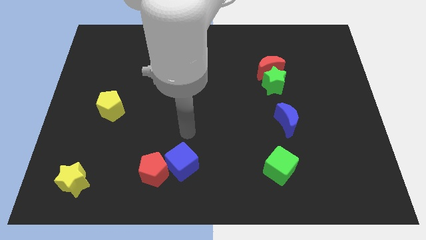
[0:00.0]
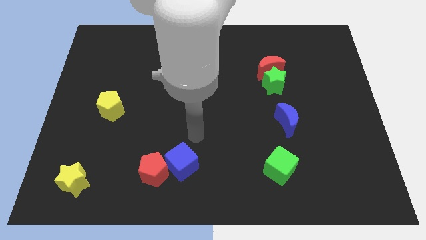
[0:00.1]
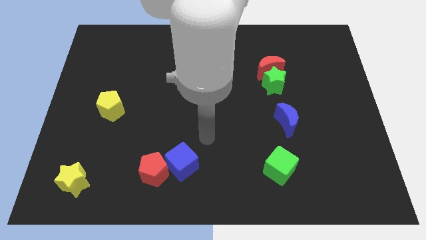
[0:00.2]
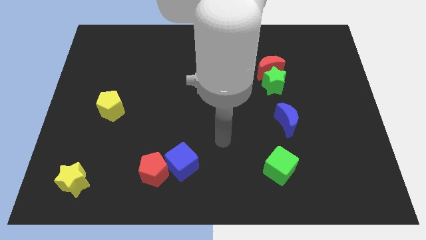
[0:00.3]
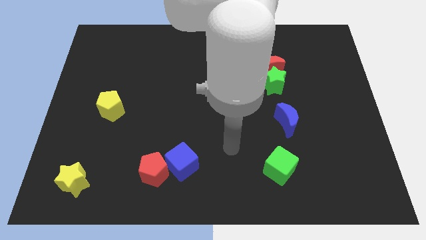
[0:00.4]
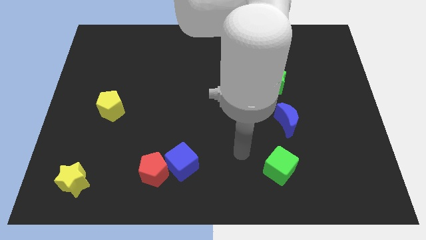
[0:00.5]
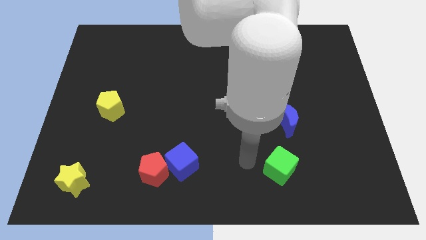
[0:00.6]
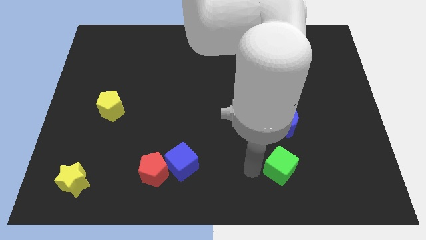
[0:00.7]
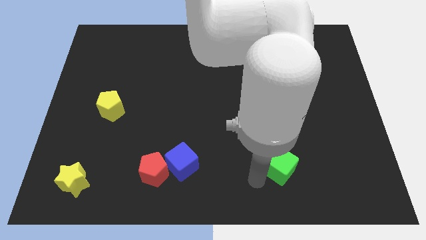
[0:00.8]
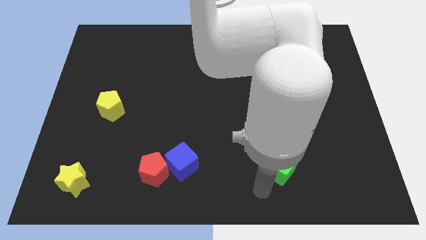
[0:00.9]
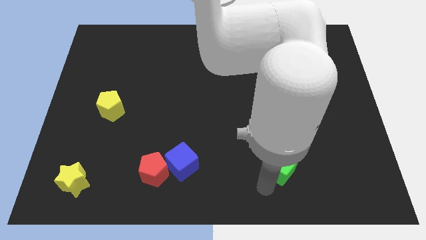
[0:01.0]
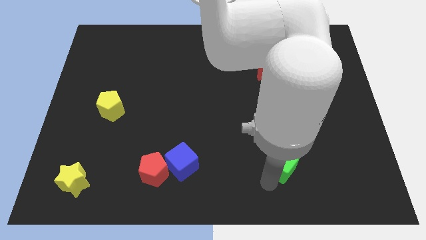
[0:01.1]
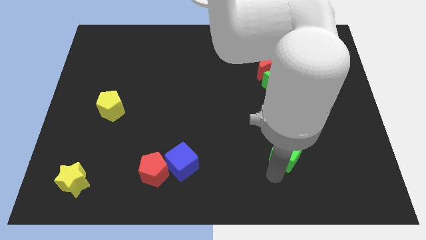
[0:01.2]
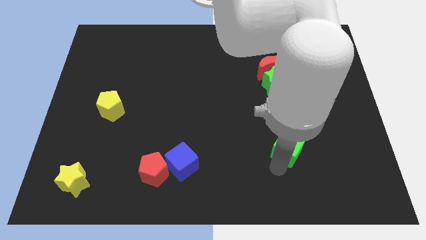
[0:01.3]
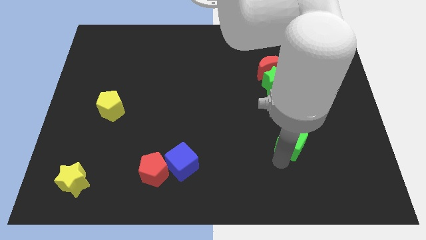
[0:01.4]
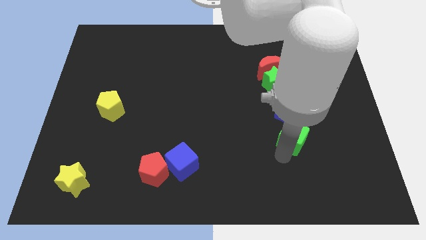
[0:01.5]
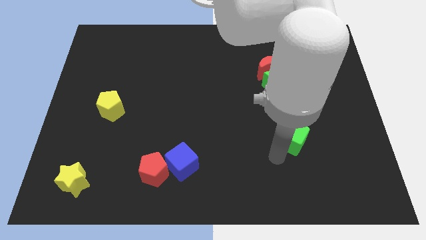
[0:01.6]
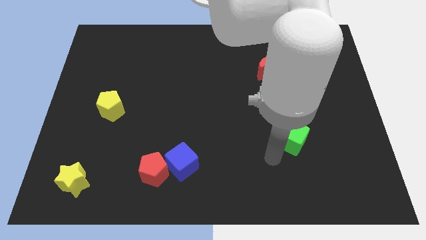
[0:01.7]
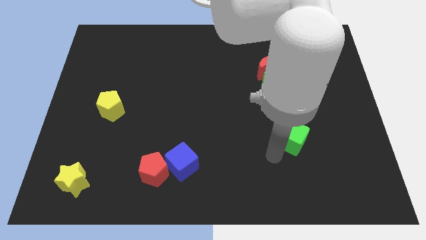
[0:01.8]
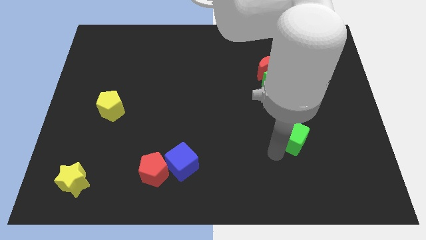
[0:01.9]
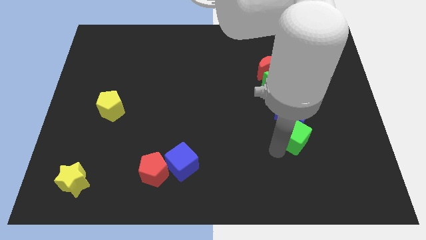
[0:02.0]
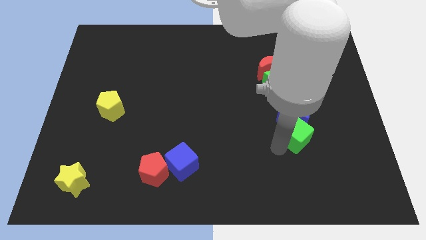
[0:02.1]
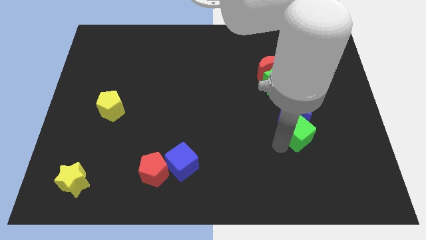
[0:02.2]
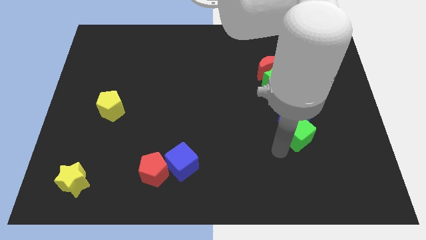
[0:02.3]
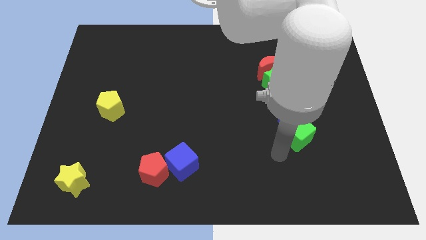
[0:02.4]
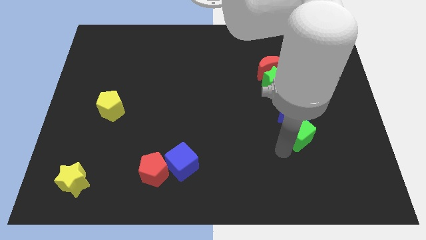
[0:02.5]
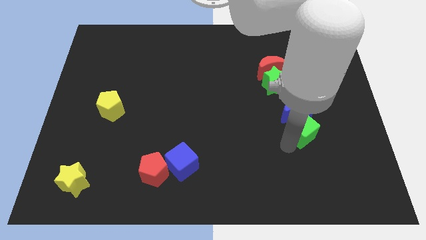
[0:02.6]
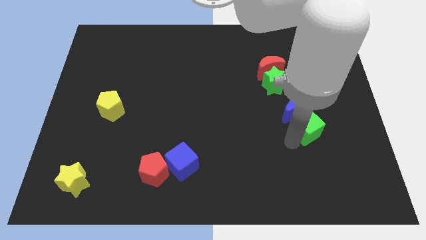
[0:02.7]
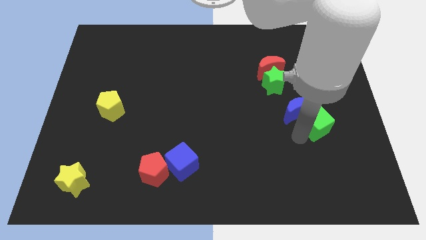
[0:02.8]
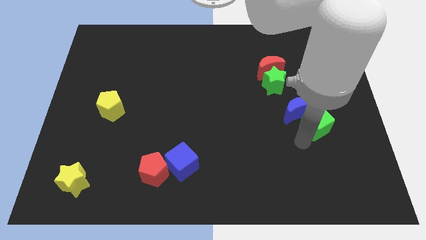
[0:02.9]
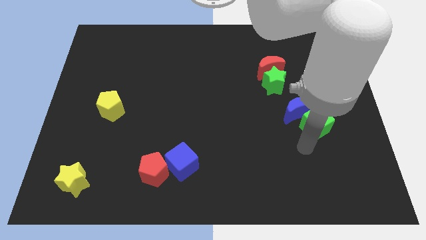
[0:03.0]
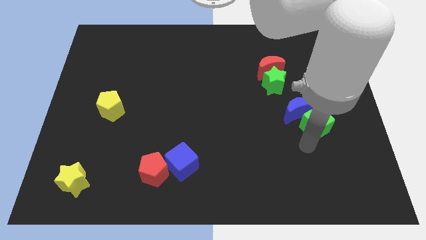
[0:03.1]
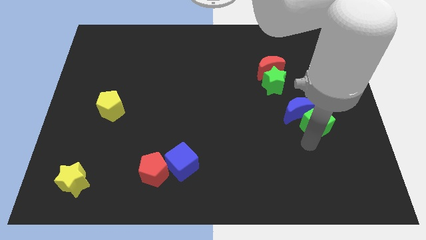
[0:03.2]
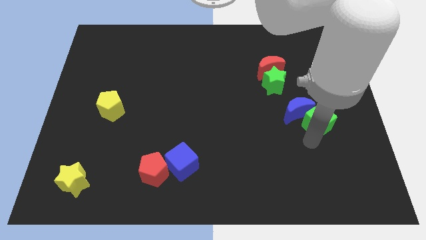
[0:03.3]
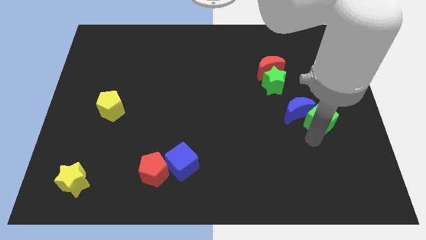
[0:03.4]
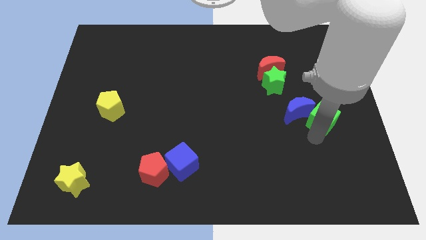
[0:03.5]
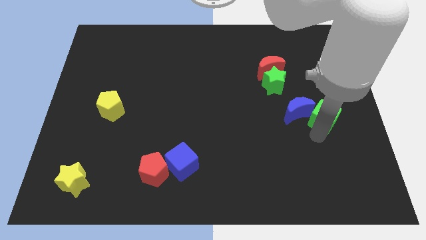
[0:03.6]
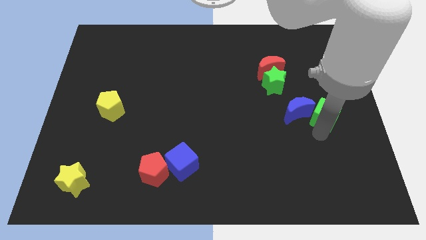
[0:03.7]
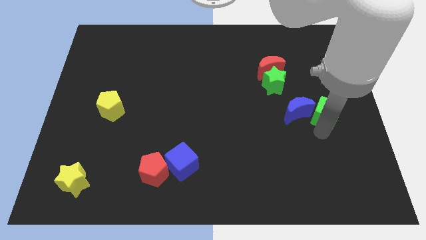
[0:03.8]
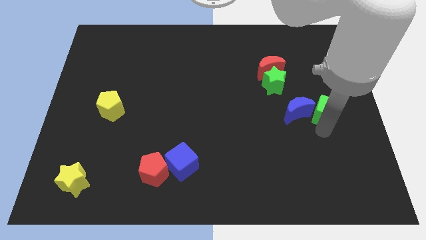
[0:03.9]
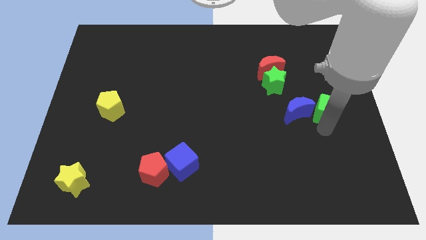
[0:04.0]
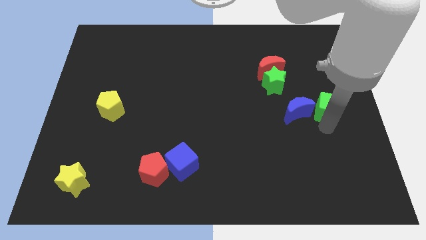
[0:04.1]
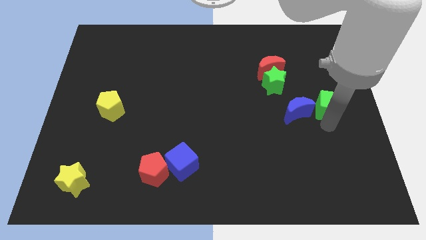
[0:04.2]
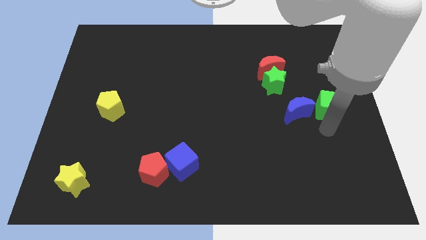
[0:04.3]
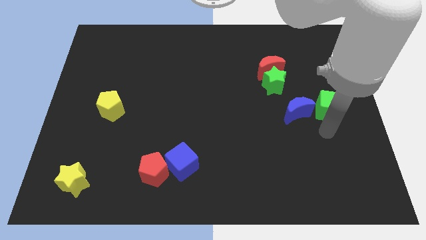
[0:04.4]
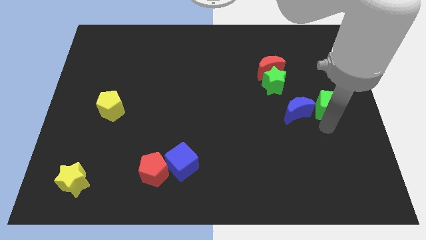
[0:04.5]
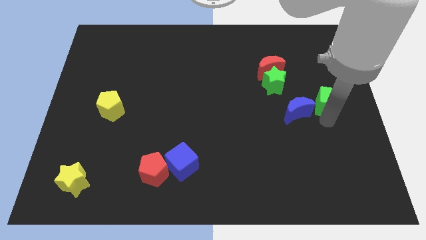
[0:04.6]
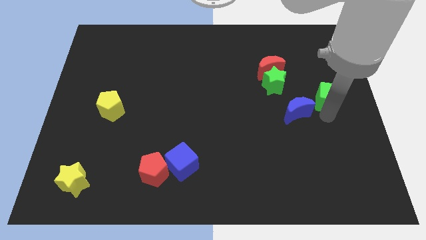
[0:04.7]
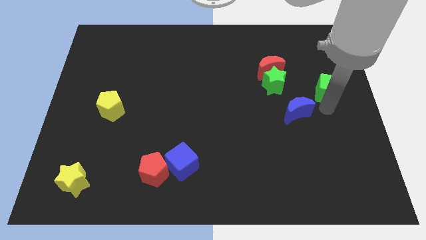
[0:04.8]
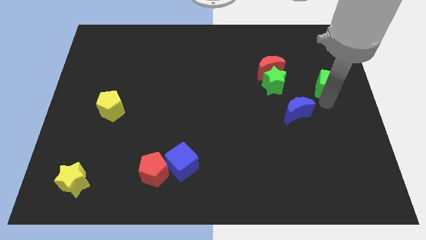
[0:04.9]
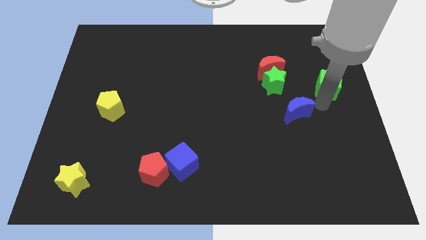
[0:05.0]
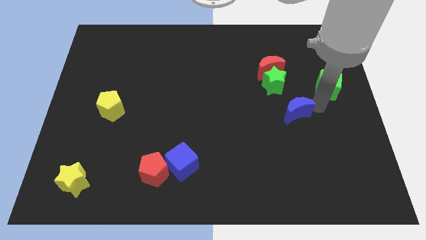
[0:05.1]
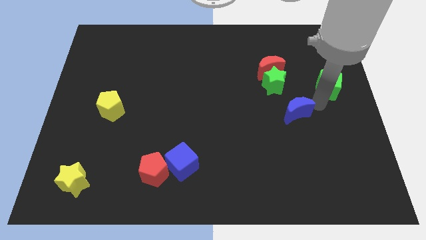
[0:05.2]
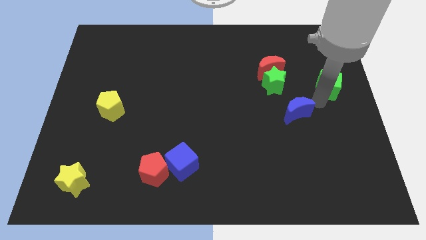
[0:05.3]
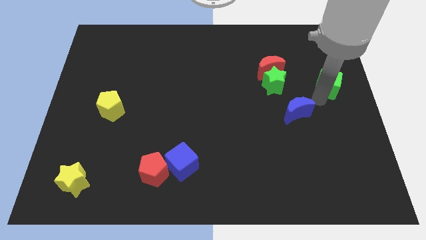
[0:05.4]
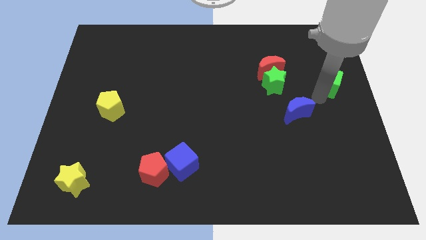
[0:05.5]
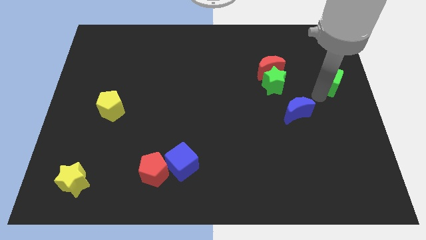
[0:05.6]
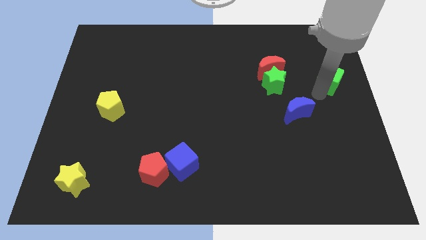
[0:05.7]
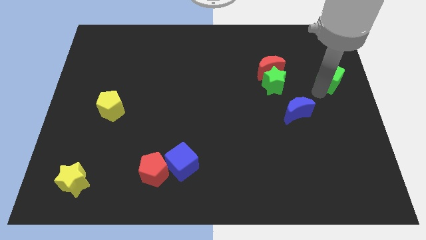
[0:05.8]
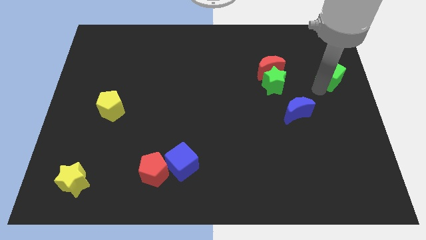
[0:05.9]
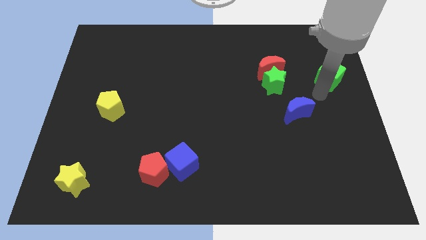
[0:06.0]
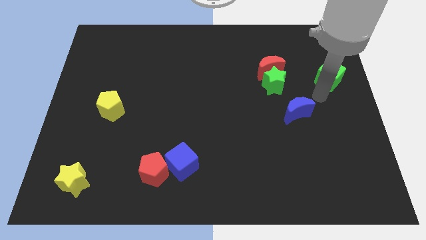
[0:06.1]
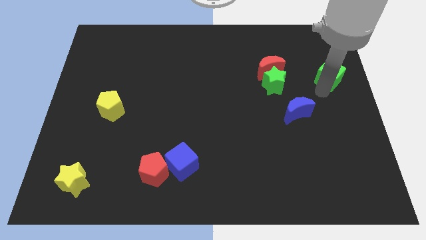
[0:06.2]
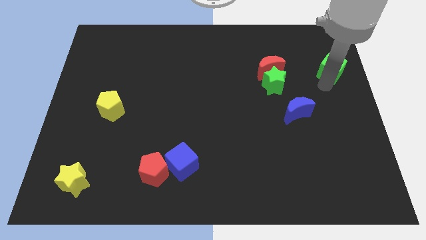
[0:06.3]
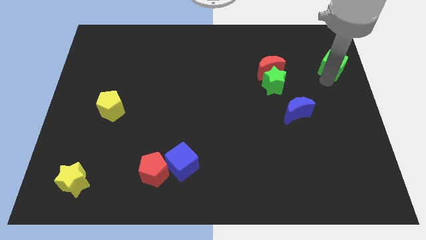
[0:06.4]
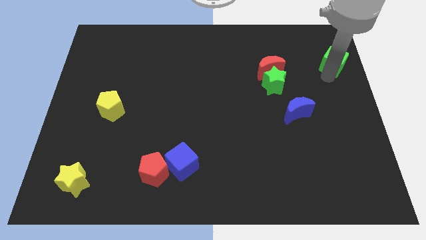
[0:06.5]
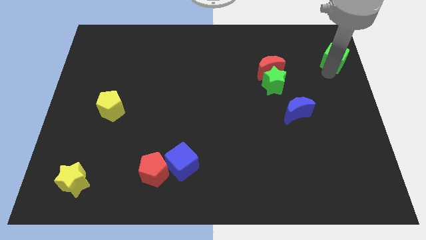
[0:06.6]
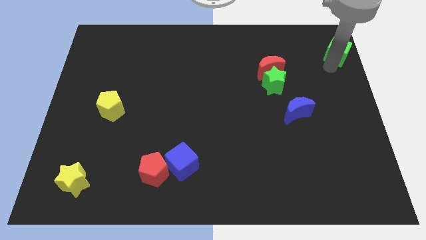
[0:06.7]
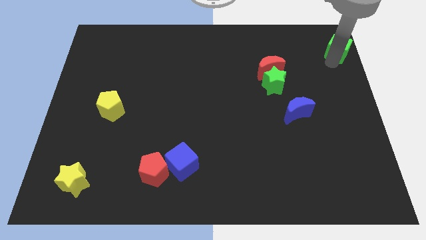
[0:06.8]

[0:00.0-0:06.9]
put the green cube to the upper right corner
